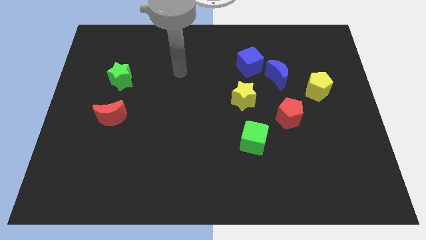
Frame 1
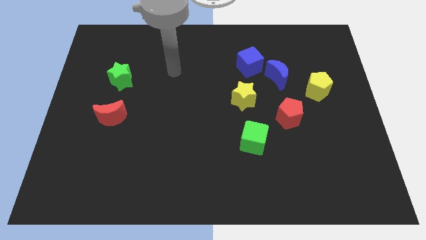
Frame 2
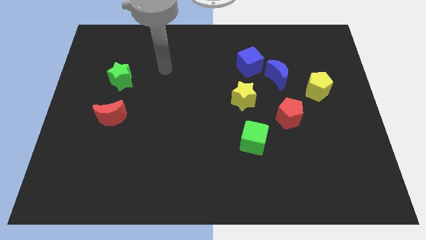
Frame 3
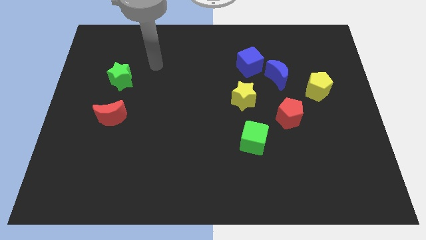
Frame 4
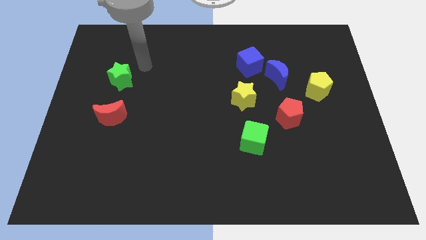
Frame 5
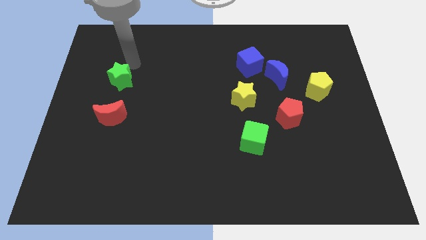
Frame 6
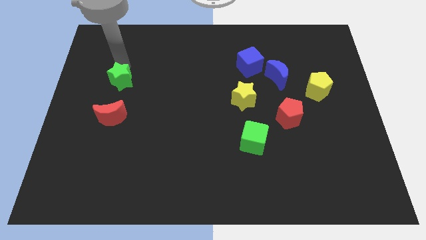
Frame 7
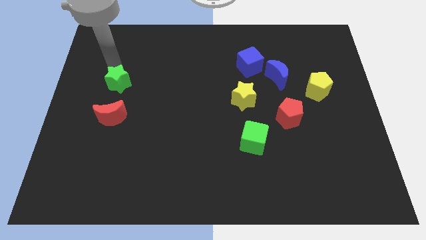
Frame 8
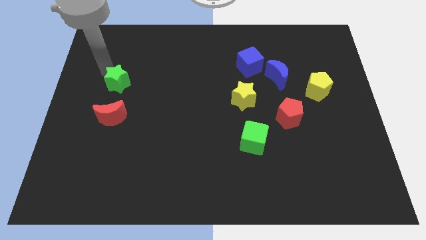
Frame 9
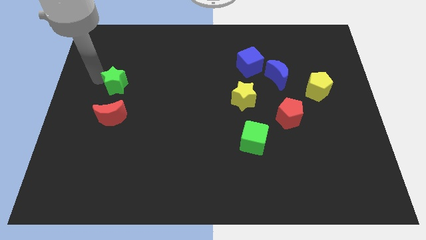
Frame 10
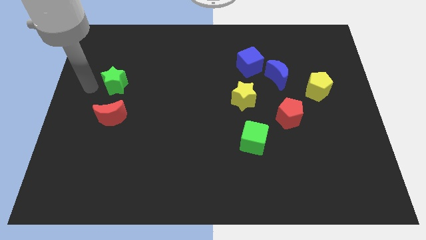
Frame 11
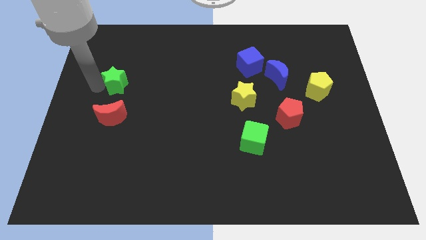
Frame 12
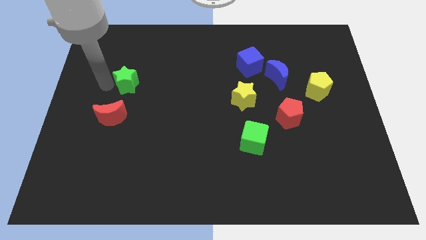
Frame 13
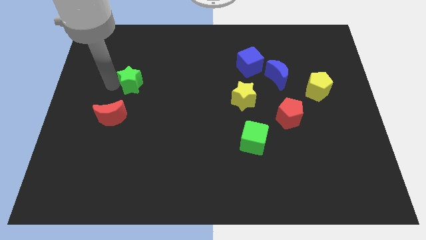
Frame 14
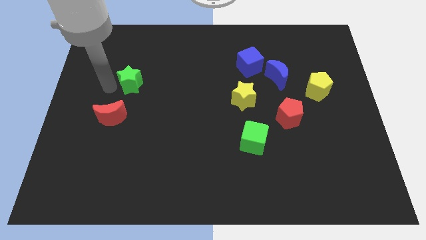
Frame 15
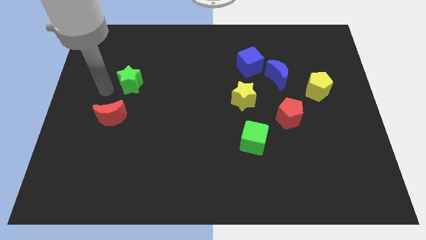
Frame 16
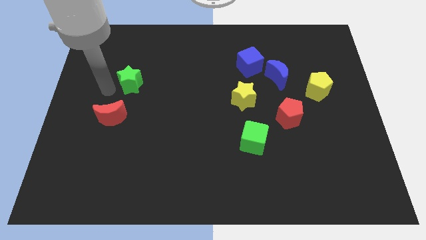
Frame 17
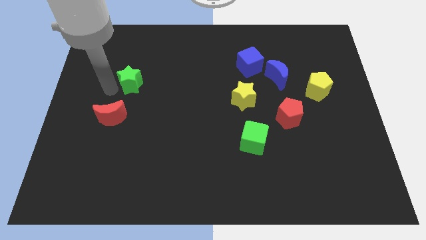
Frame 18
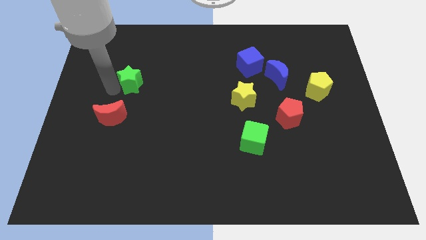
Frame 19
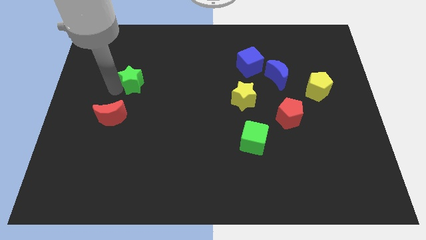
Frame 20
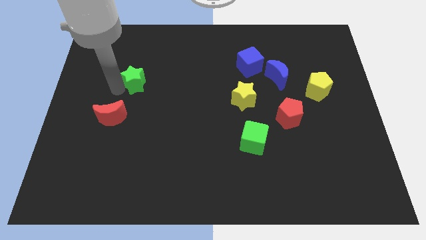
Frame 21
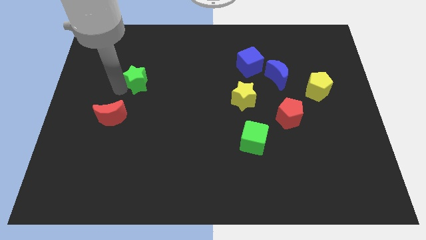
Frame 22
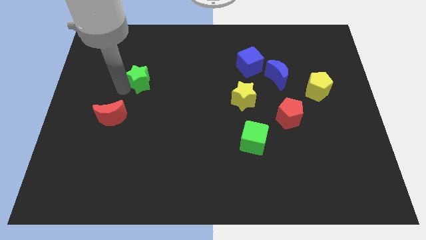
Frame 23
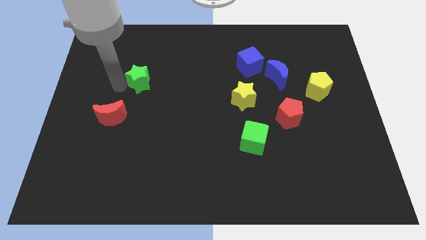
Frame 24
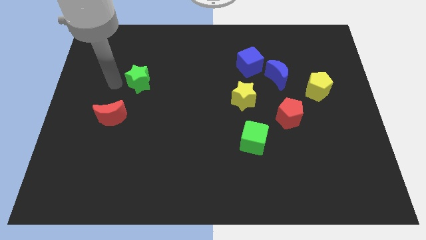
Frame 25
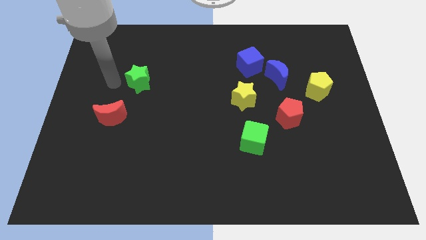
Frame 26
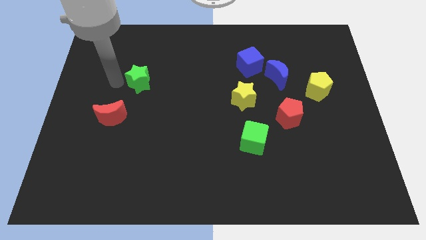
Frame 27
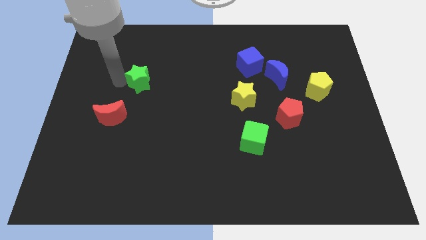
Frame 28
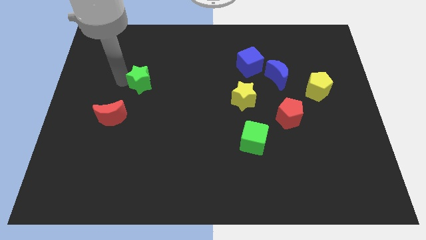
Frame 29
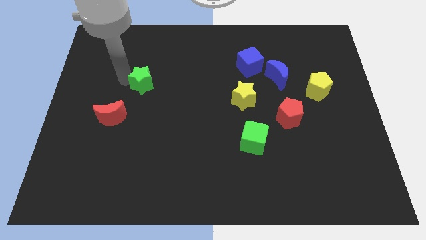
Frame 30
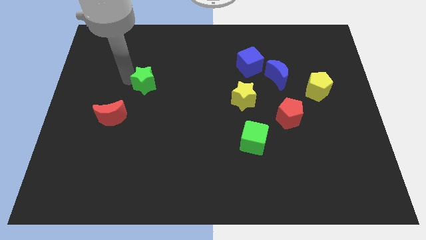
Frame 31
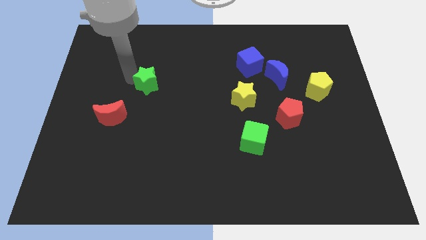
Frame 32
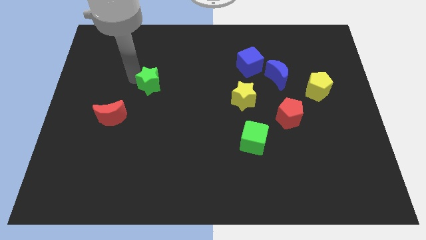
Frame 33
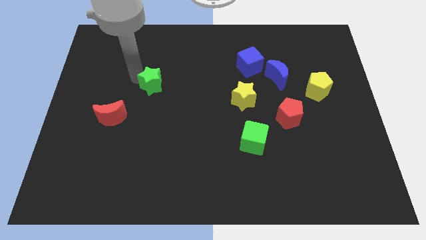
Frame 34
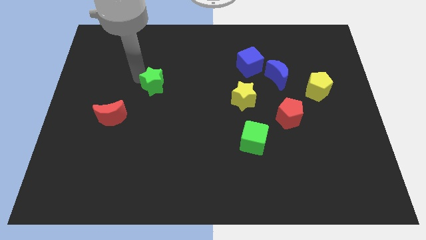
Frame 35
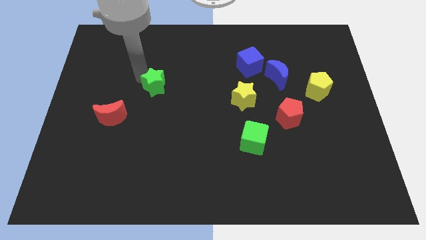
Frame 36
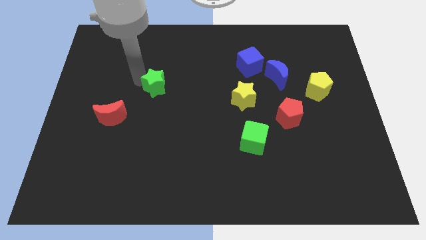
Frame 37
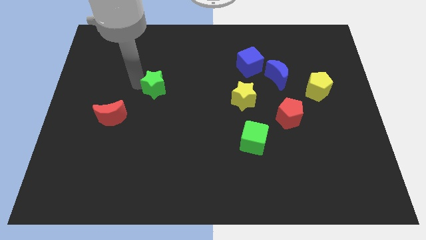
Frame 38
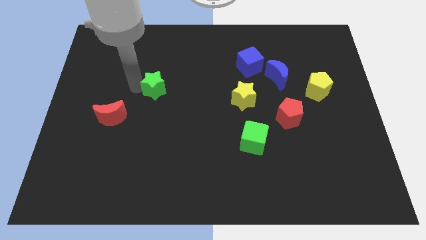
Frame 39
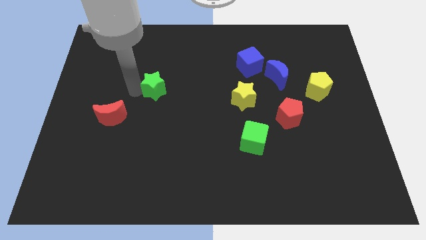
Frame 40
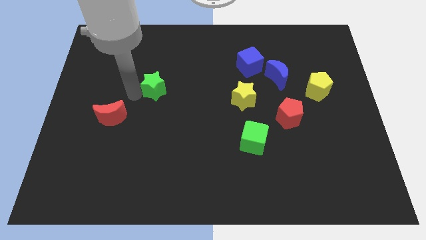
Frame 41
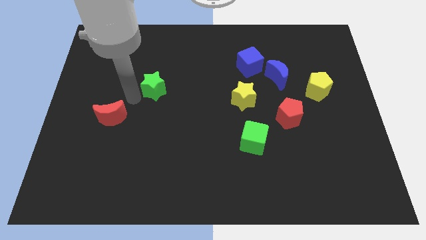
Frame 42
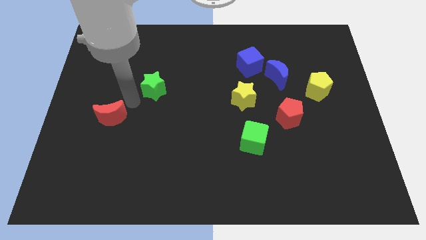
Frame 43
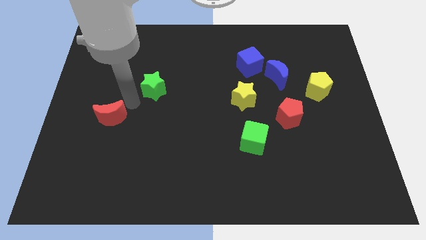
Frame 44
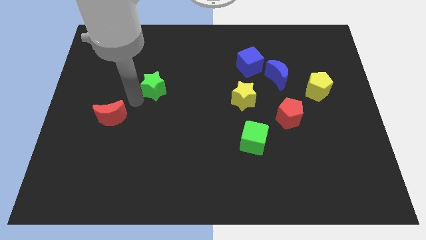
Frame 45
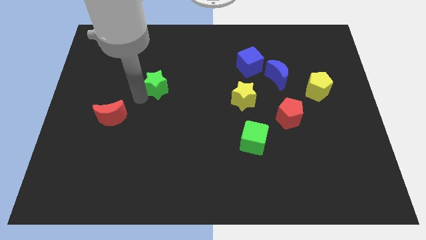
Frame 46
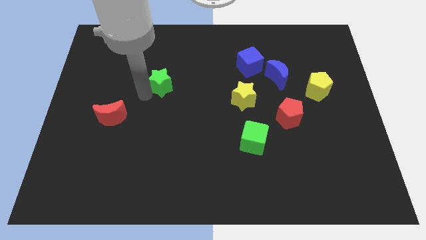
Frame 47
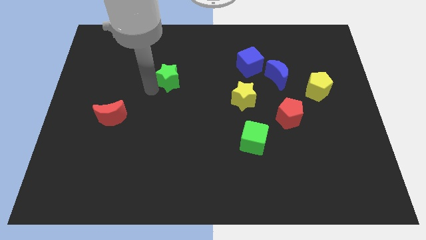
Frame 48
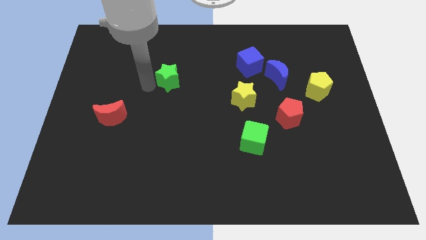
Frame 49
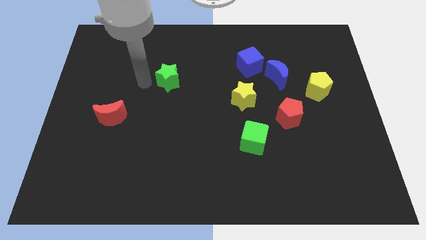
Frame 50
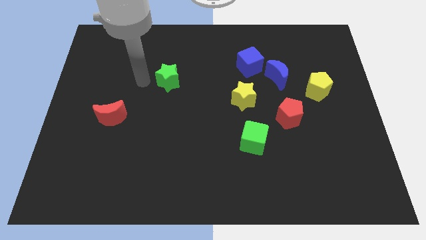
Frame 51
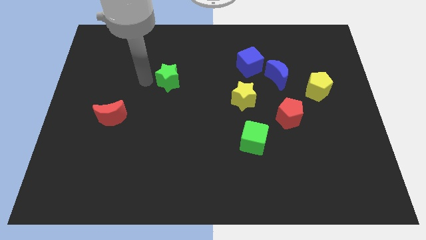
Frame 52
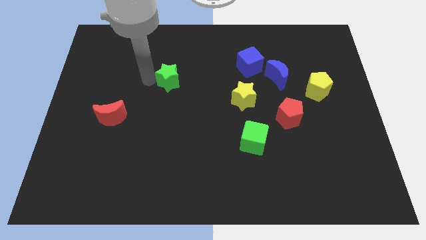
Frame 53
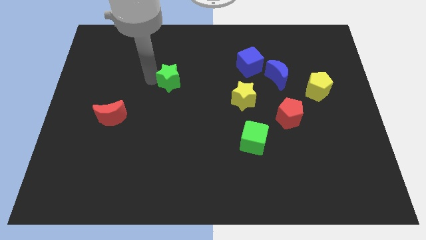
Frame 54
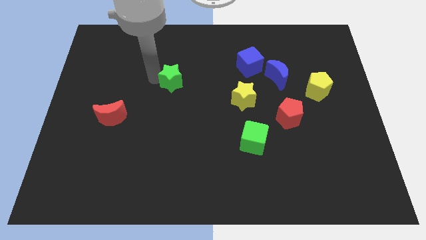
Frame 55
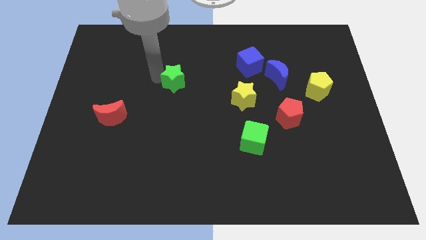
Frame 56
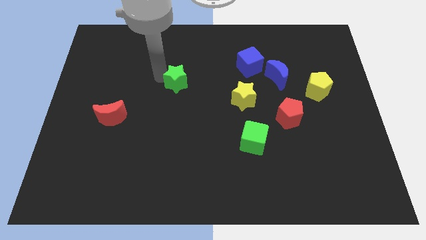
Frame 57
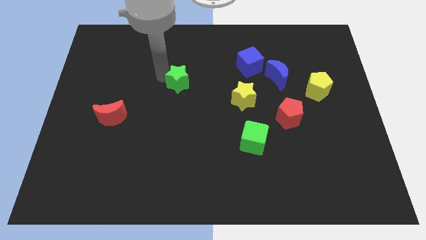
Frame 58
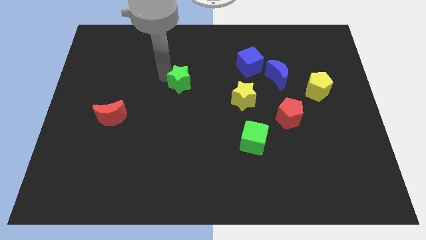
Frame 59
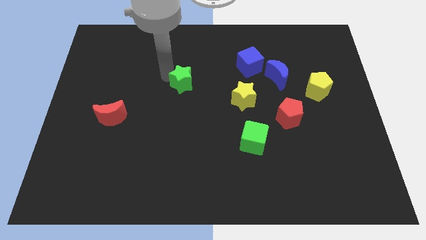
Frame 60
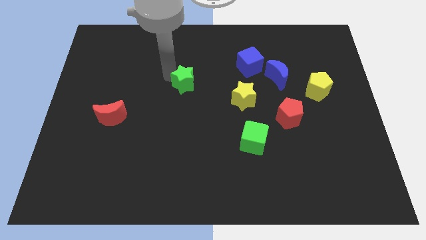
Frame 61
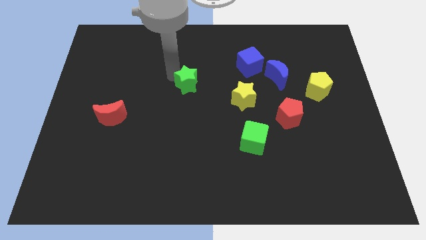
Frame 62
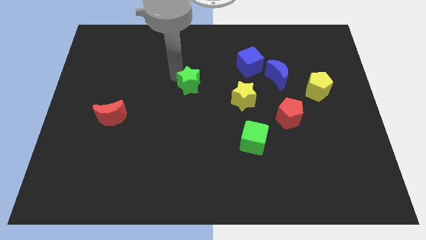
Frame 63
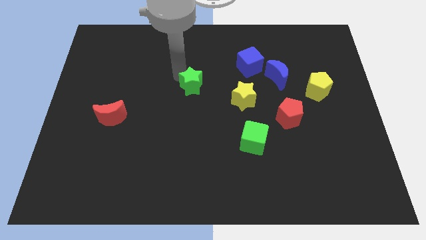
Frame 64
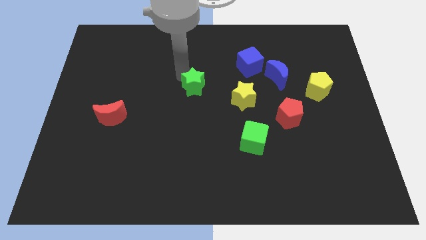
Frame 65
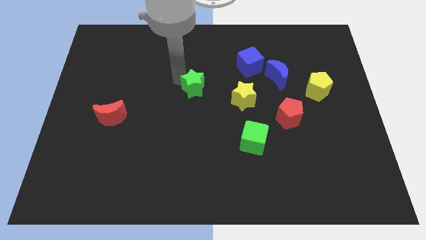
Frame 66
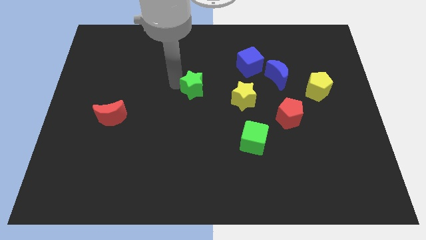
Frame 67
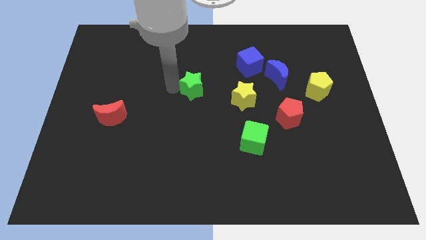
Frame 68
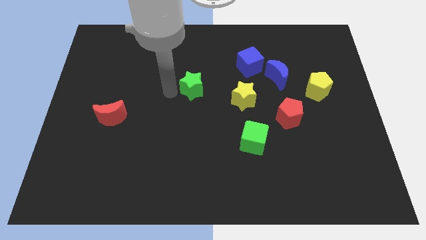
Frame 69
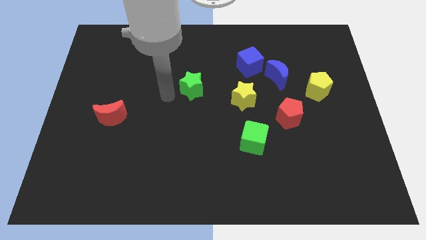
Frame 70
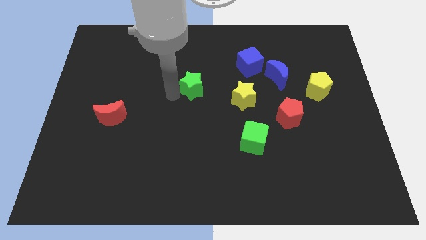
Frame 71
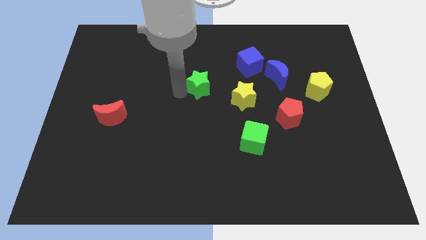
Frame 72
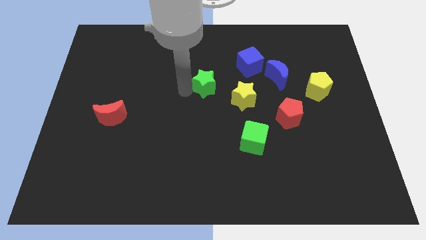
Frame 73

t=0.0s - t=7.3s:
move the green star right

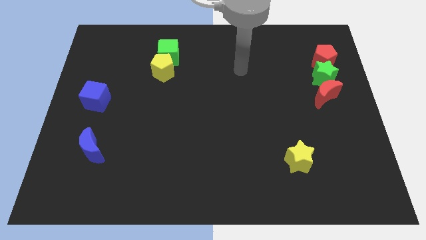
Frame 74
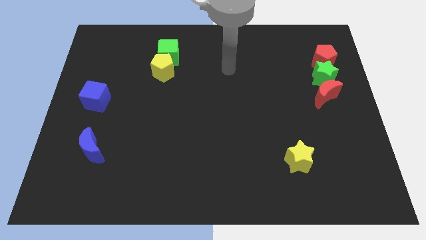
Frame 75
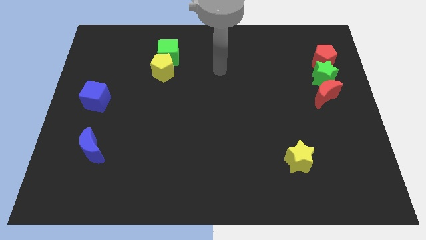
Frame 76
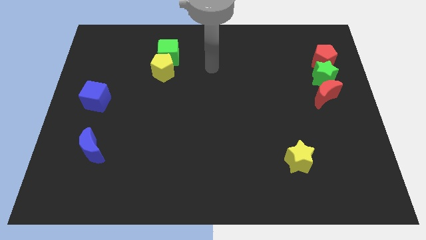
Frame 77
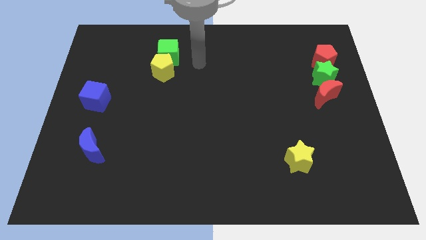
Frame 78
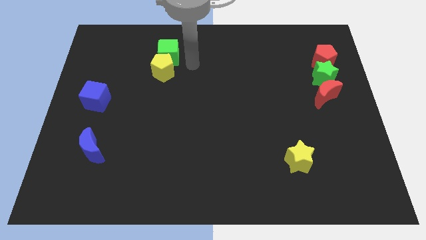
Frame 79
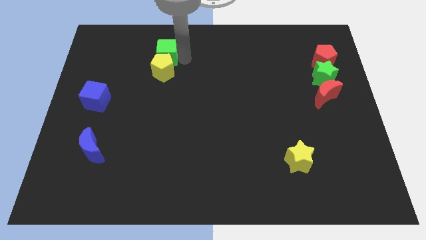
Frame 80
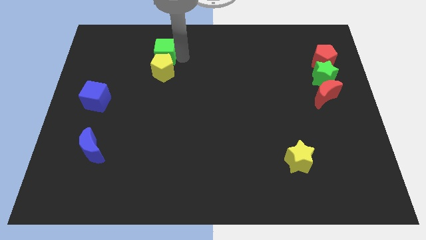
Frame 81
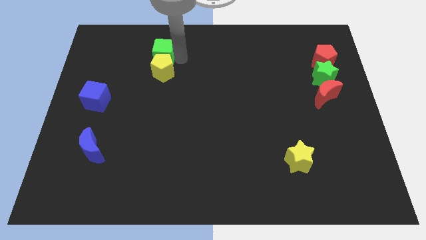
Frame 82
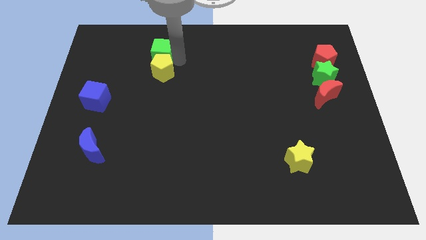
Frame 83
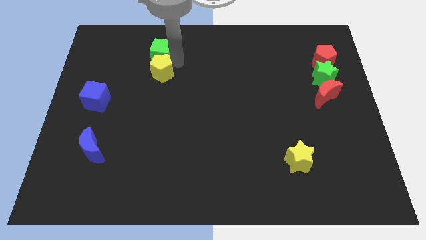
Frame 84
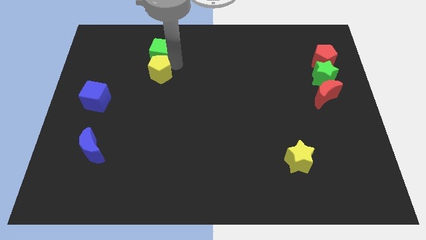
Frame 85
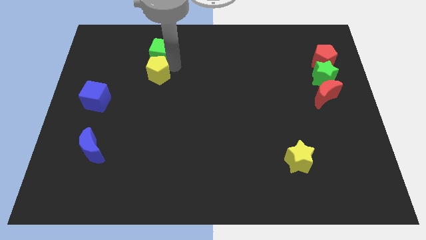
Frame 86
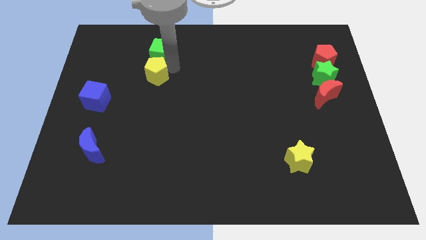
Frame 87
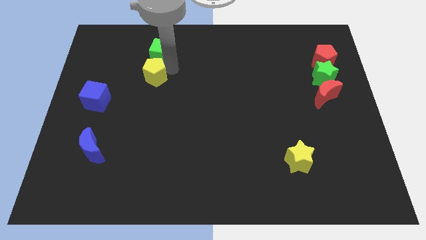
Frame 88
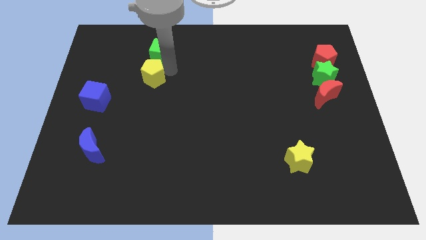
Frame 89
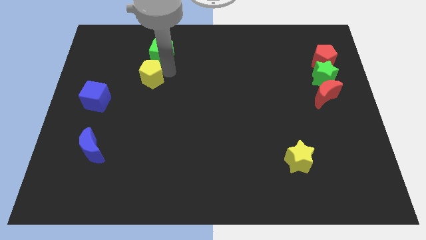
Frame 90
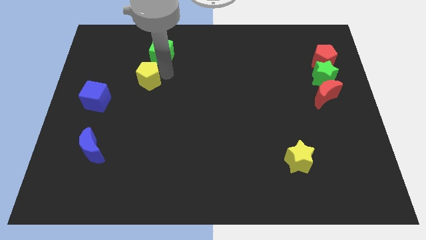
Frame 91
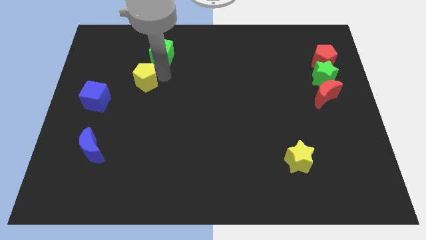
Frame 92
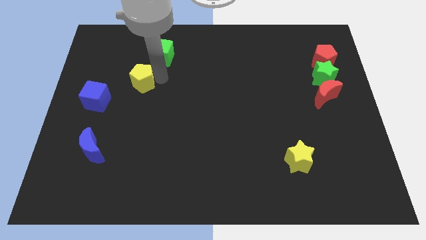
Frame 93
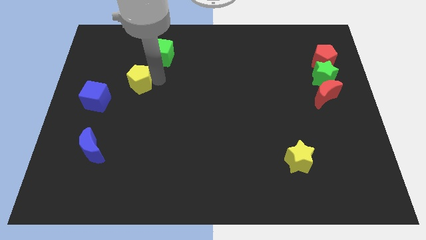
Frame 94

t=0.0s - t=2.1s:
slightly slide the yellow pentagon downwards and to the left diagonally
